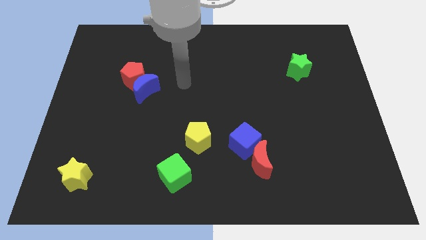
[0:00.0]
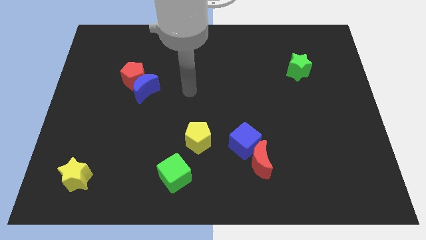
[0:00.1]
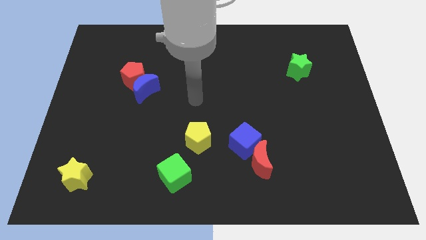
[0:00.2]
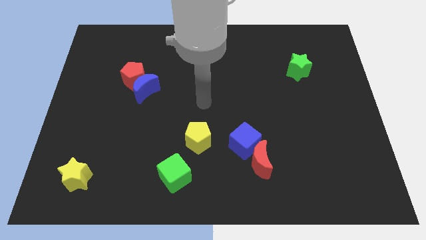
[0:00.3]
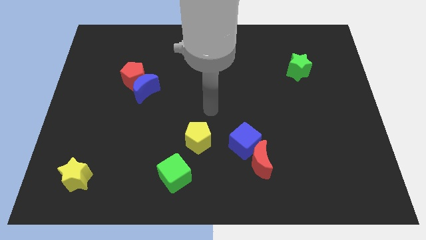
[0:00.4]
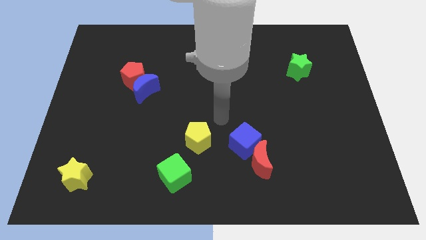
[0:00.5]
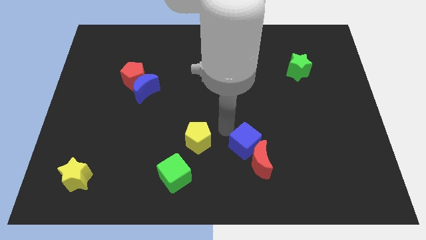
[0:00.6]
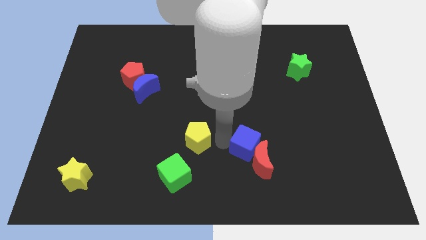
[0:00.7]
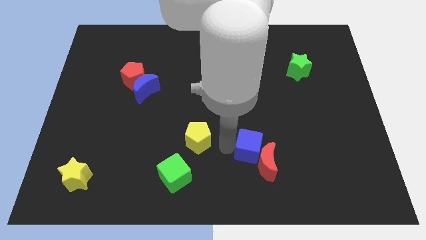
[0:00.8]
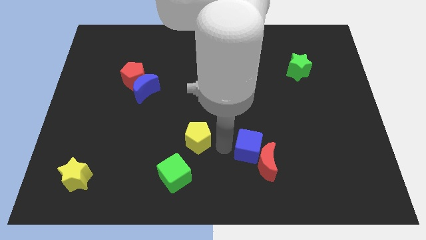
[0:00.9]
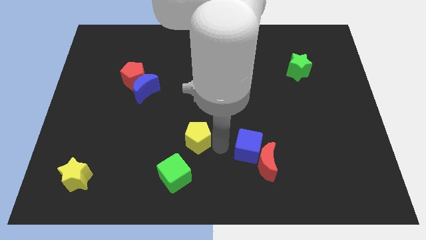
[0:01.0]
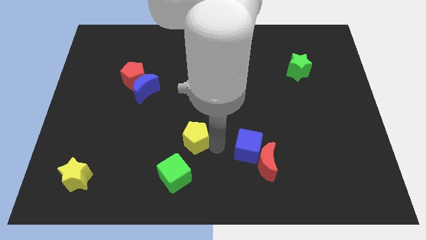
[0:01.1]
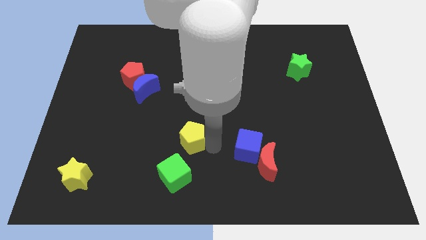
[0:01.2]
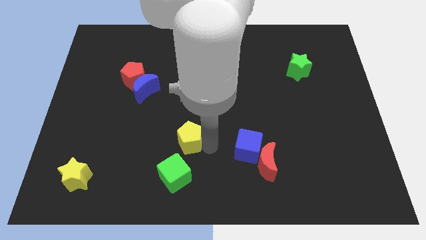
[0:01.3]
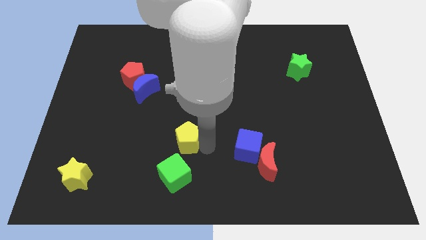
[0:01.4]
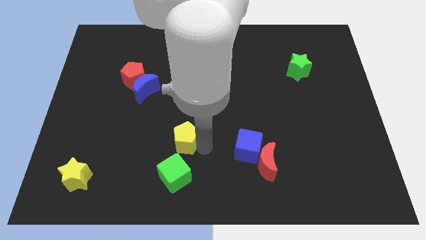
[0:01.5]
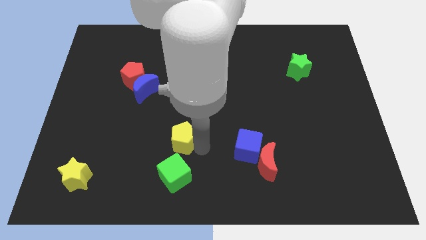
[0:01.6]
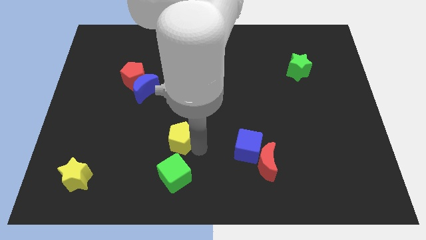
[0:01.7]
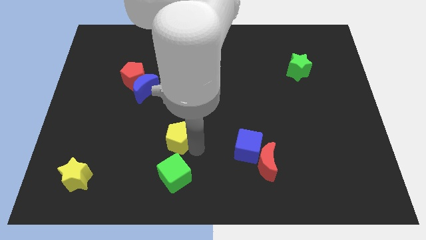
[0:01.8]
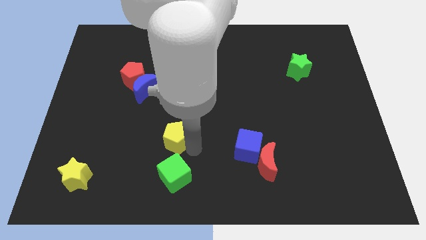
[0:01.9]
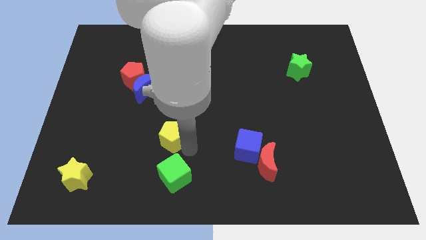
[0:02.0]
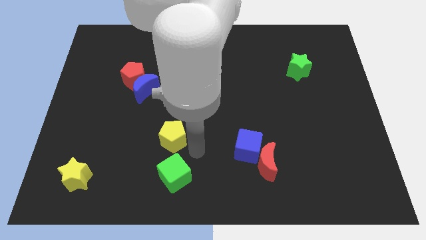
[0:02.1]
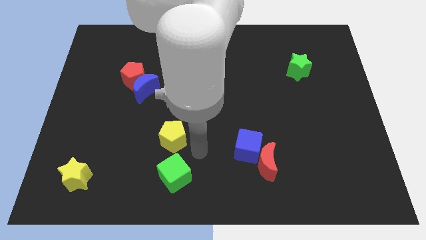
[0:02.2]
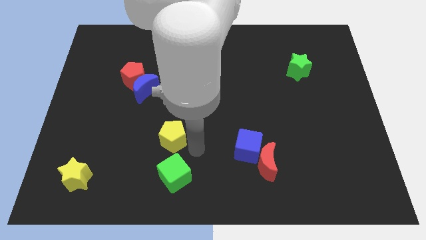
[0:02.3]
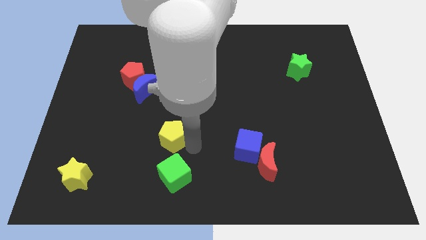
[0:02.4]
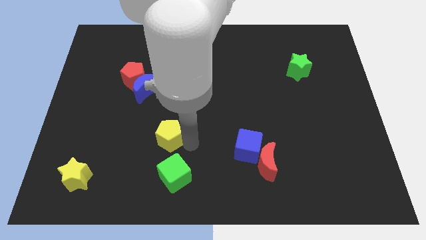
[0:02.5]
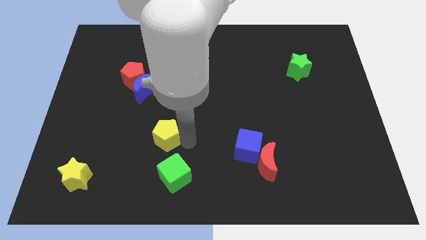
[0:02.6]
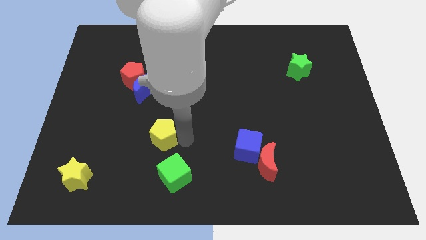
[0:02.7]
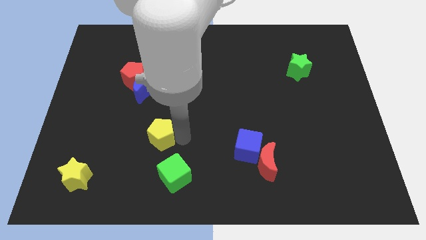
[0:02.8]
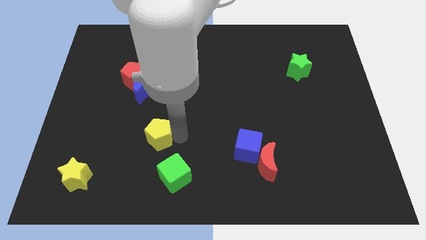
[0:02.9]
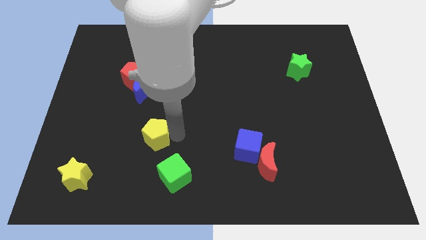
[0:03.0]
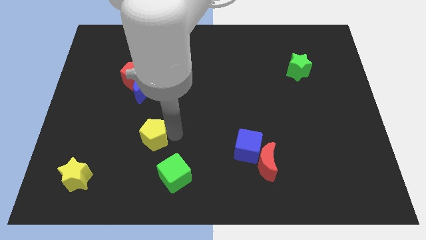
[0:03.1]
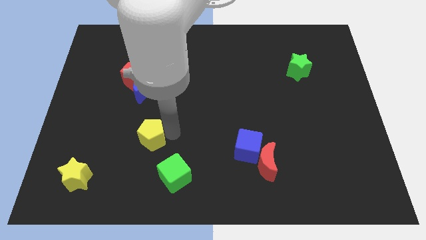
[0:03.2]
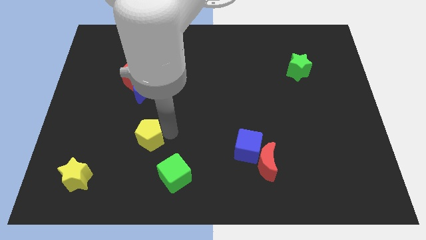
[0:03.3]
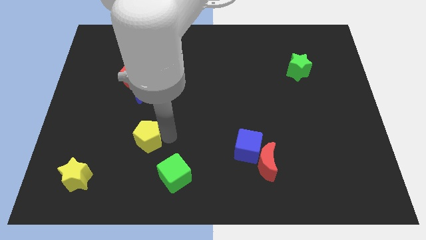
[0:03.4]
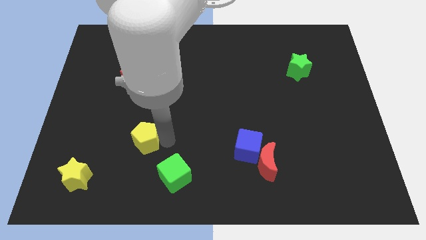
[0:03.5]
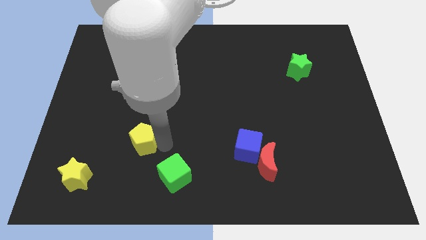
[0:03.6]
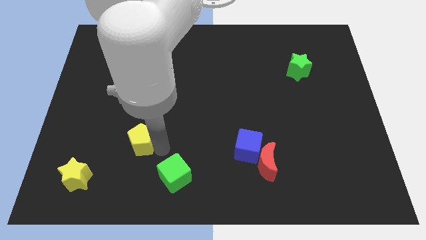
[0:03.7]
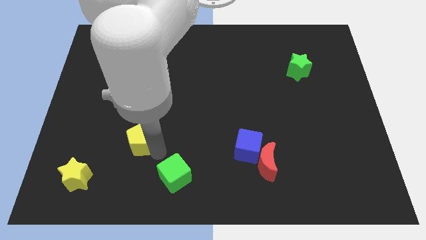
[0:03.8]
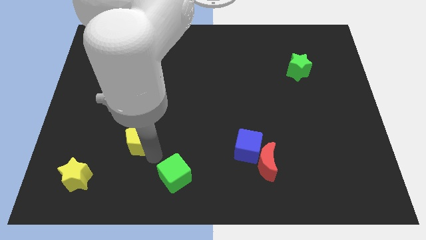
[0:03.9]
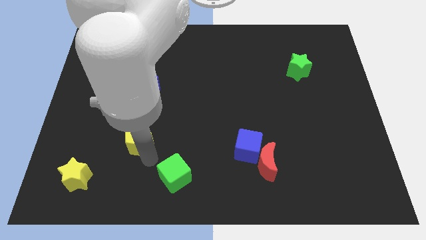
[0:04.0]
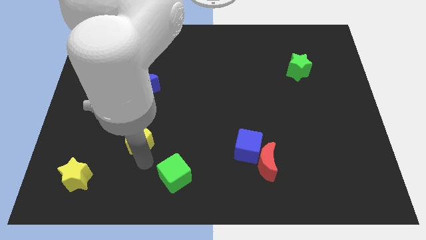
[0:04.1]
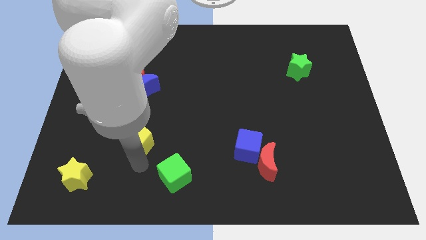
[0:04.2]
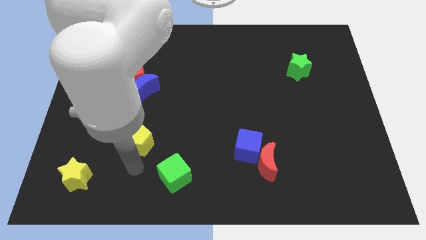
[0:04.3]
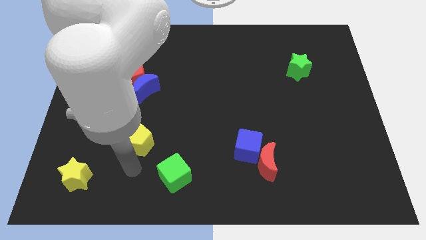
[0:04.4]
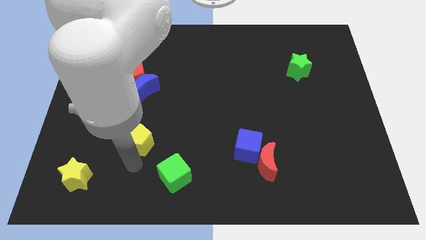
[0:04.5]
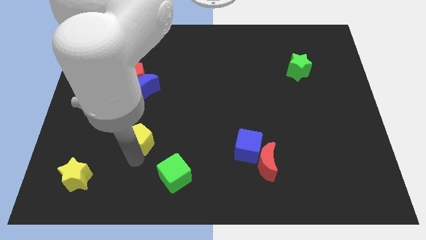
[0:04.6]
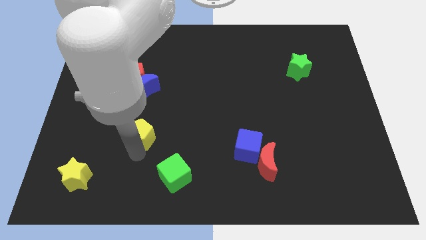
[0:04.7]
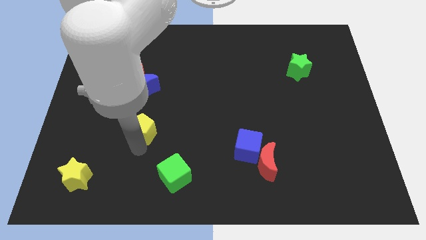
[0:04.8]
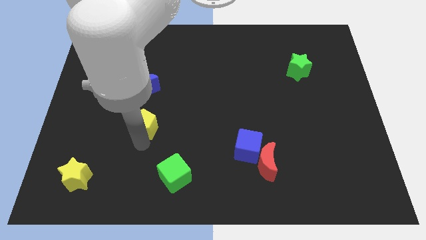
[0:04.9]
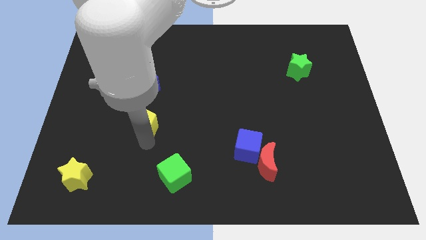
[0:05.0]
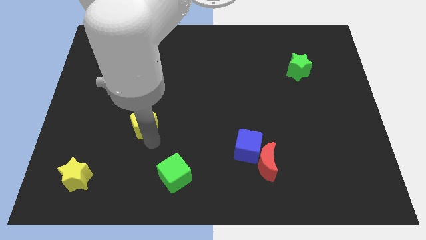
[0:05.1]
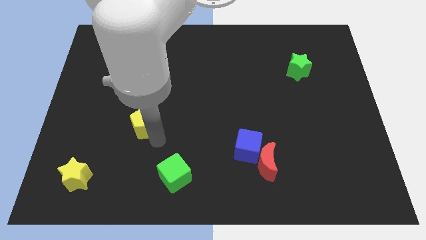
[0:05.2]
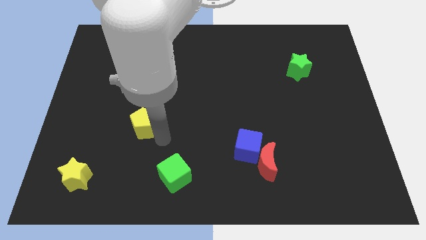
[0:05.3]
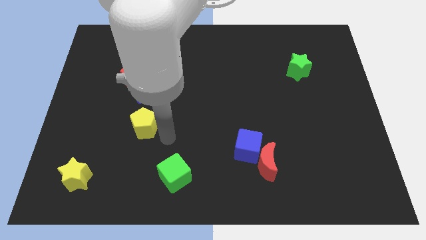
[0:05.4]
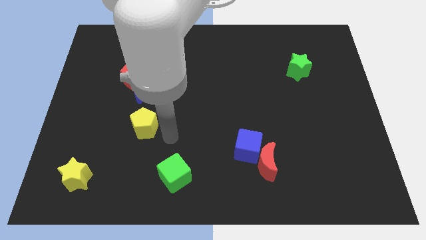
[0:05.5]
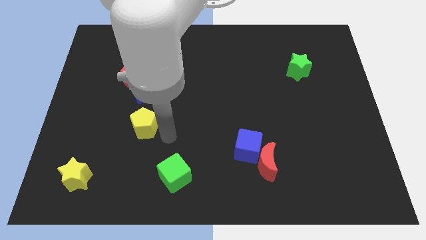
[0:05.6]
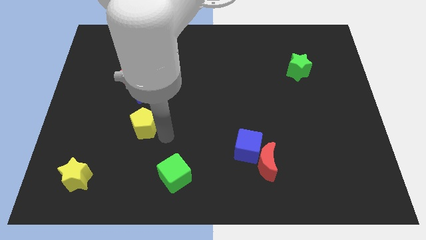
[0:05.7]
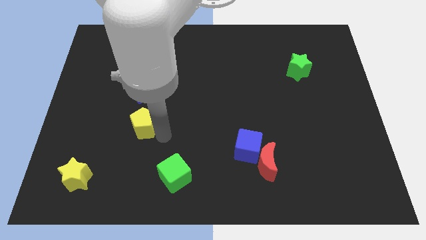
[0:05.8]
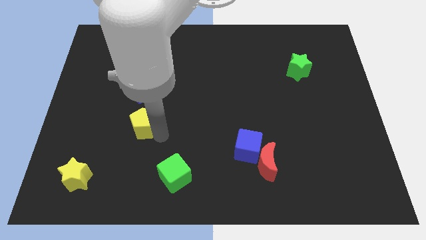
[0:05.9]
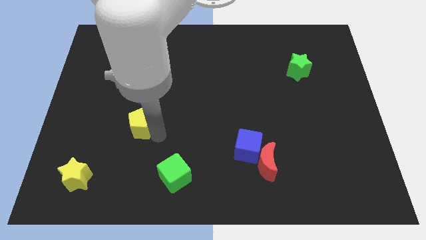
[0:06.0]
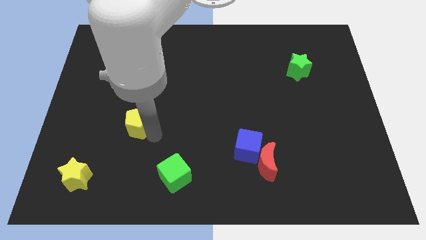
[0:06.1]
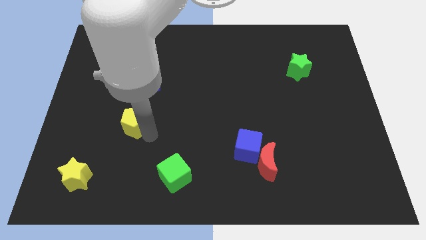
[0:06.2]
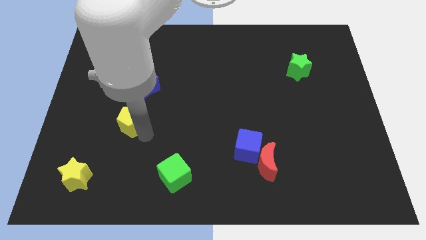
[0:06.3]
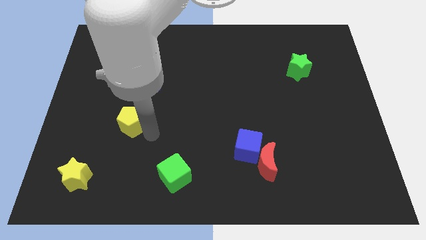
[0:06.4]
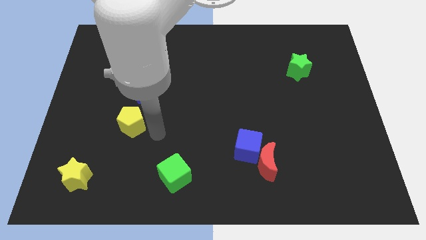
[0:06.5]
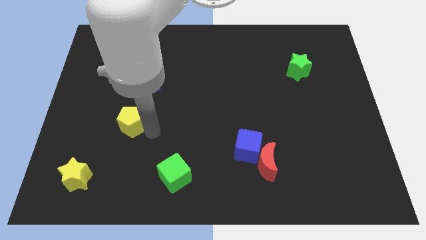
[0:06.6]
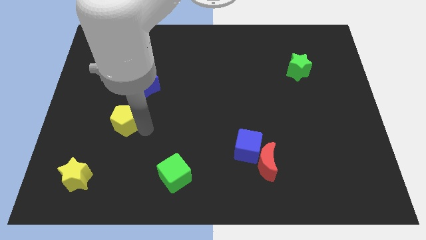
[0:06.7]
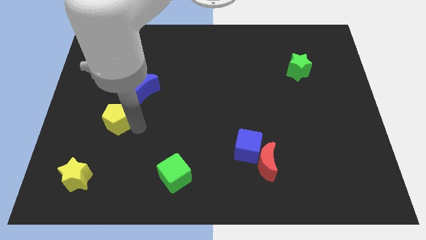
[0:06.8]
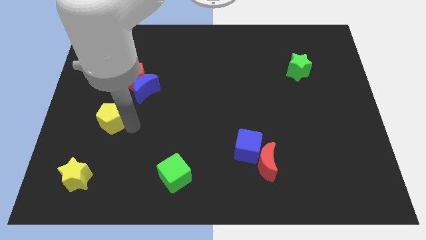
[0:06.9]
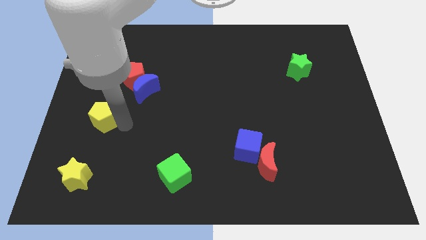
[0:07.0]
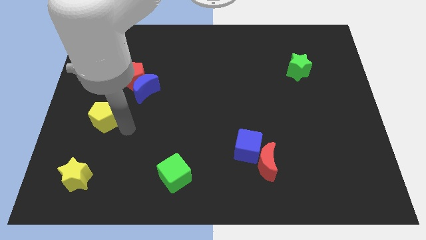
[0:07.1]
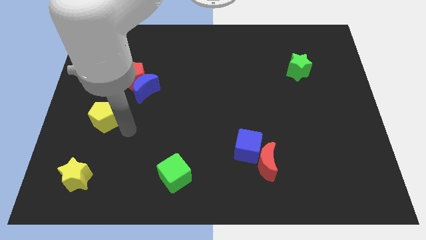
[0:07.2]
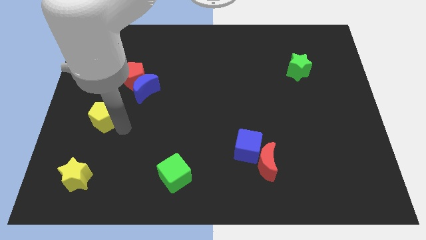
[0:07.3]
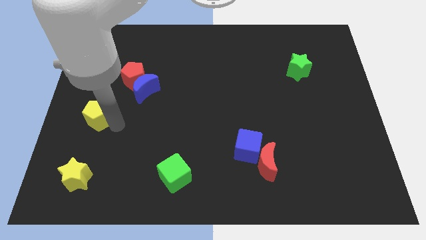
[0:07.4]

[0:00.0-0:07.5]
slide the yellow pentagon to the left side
